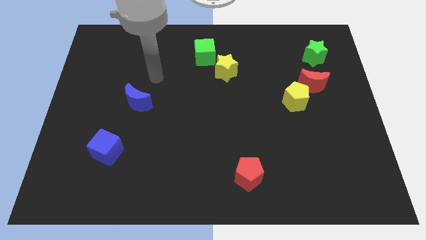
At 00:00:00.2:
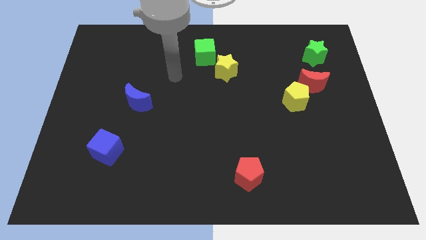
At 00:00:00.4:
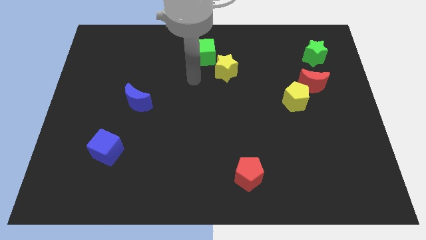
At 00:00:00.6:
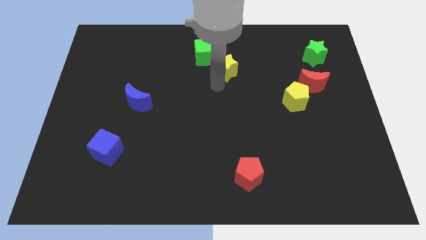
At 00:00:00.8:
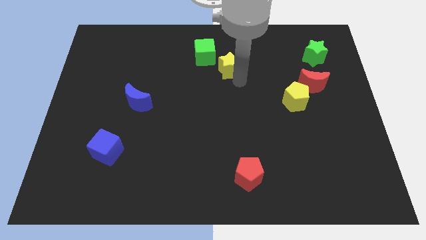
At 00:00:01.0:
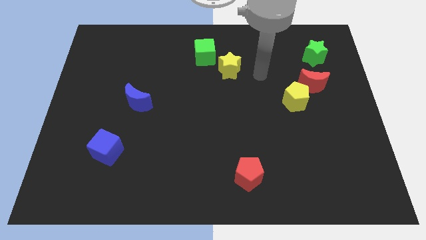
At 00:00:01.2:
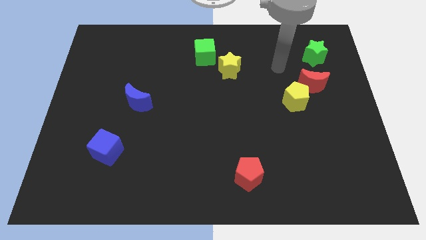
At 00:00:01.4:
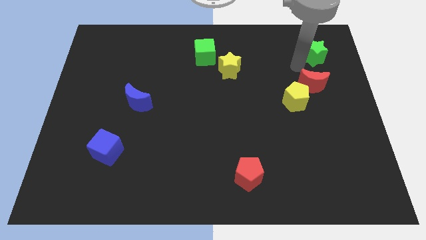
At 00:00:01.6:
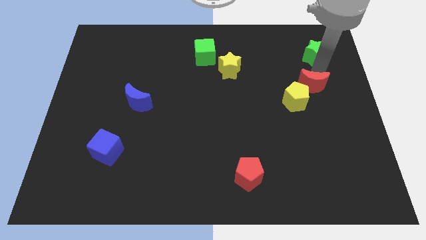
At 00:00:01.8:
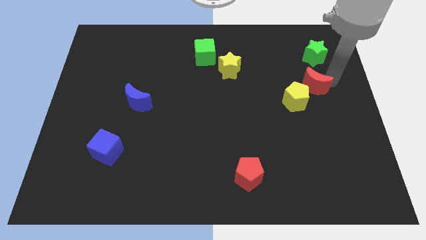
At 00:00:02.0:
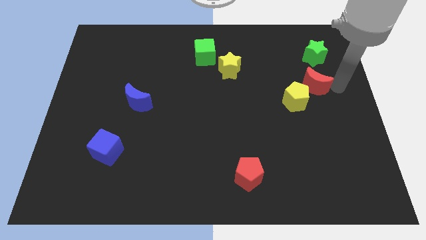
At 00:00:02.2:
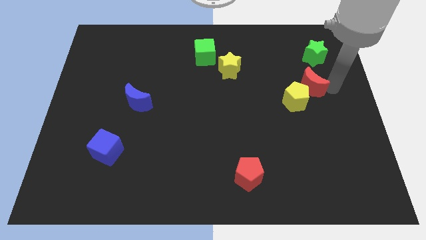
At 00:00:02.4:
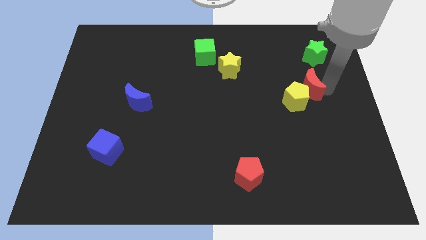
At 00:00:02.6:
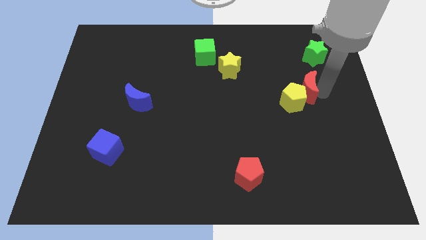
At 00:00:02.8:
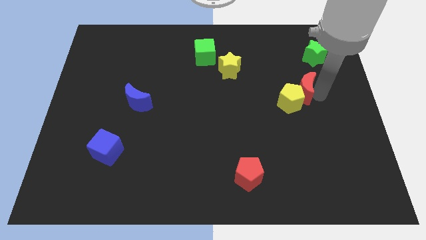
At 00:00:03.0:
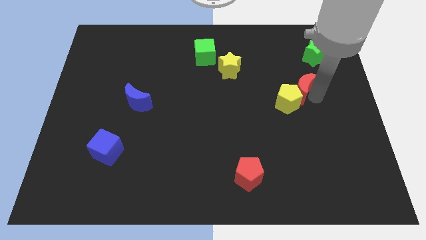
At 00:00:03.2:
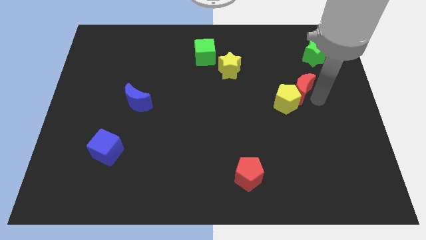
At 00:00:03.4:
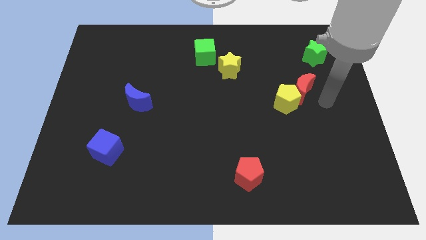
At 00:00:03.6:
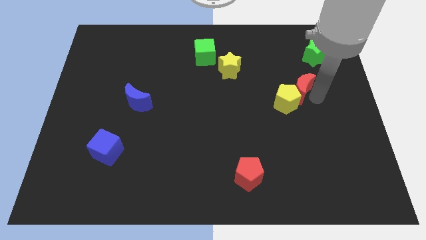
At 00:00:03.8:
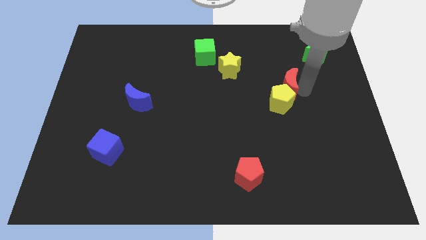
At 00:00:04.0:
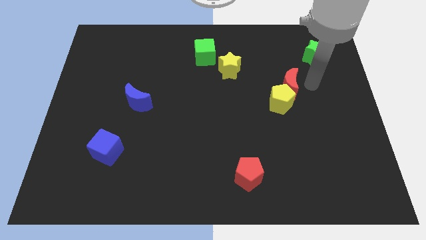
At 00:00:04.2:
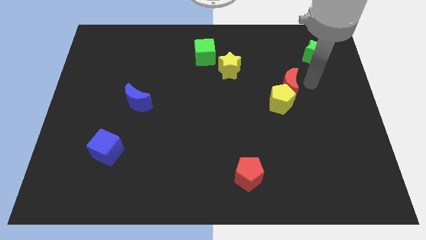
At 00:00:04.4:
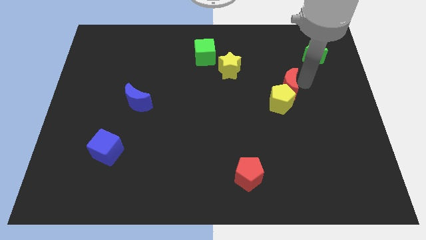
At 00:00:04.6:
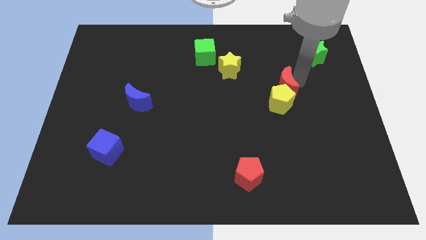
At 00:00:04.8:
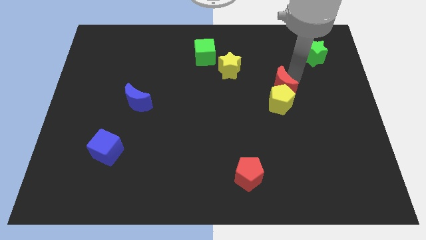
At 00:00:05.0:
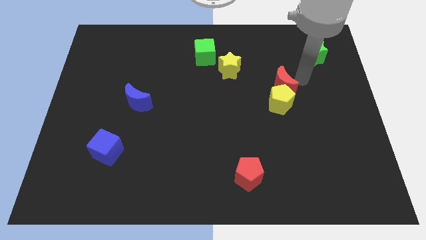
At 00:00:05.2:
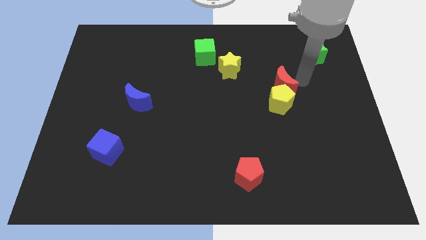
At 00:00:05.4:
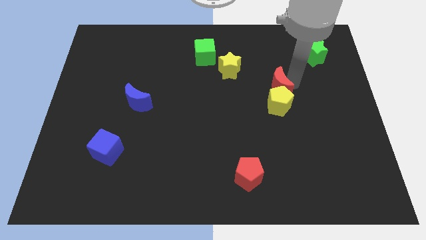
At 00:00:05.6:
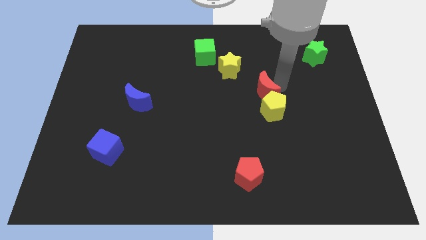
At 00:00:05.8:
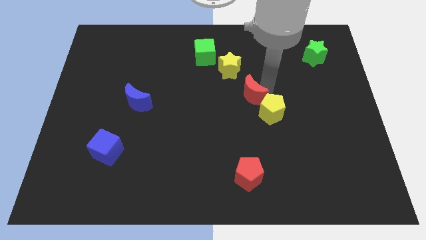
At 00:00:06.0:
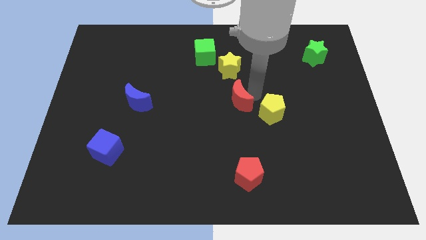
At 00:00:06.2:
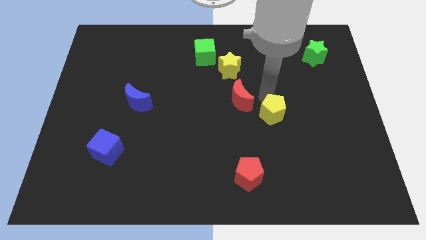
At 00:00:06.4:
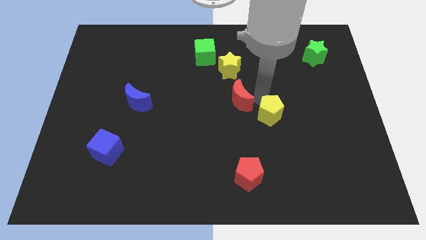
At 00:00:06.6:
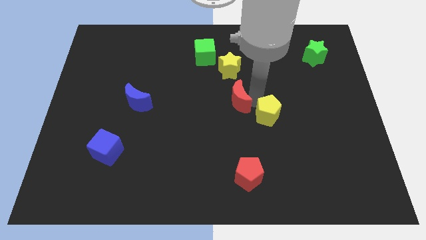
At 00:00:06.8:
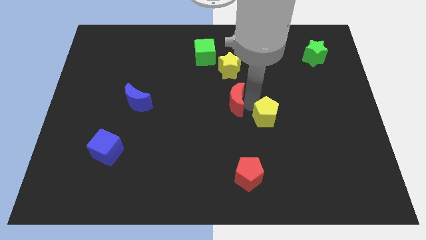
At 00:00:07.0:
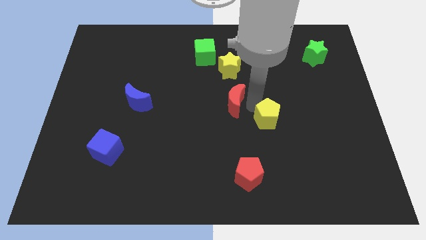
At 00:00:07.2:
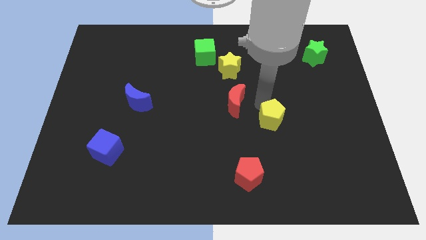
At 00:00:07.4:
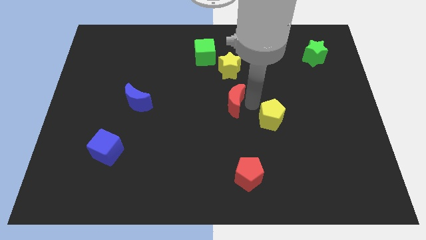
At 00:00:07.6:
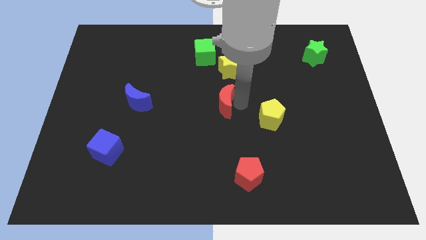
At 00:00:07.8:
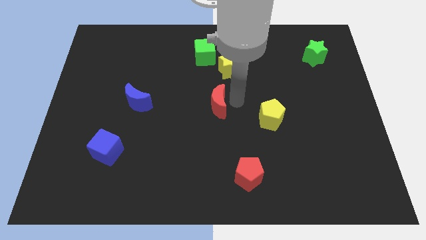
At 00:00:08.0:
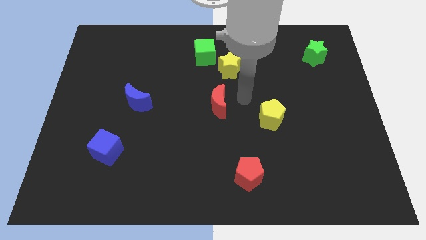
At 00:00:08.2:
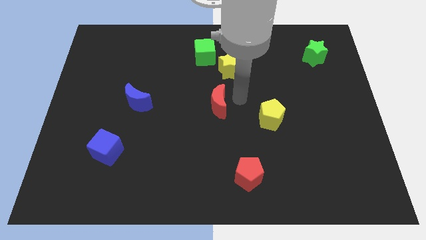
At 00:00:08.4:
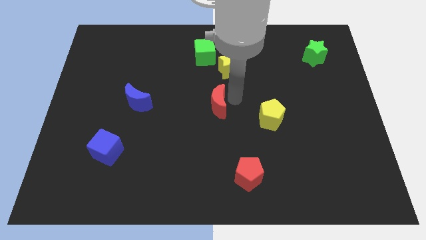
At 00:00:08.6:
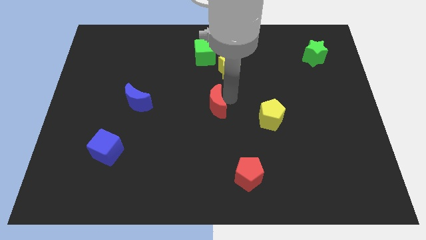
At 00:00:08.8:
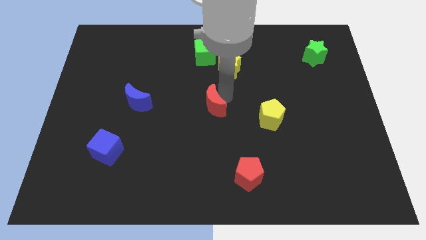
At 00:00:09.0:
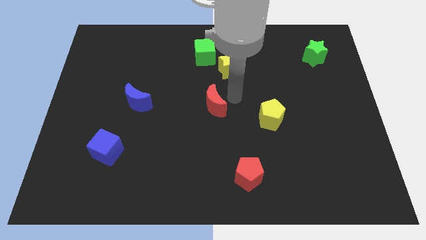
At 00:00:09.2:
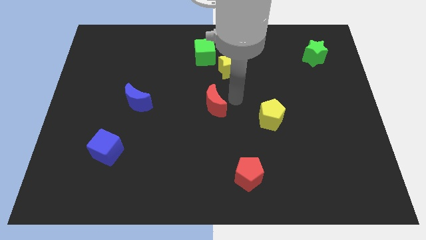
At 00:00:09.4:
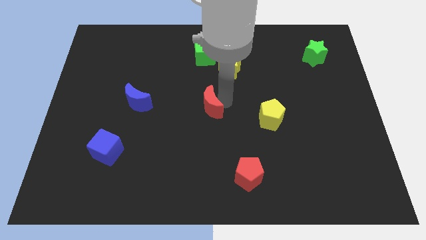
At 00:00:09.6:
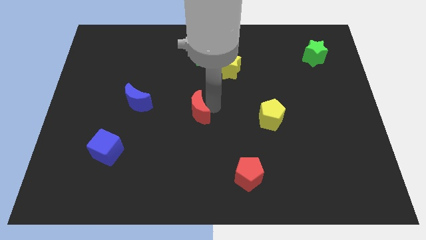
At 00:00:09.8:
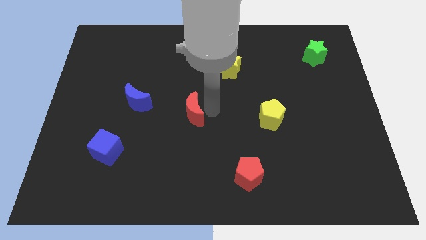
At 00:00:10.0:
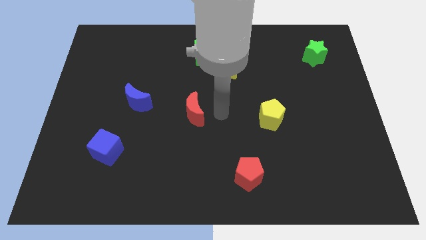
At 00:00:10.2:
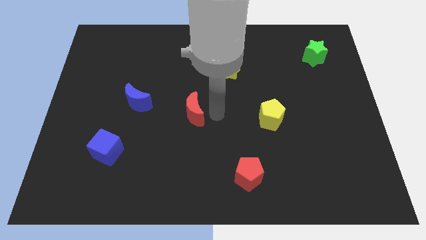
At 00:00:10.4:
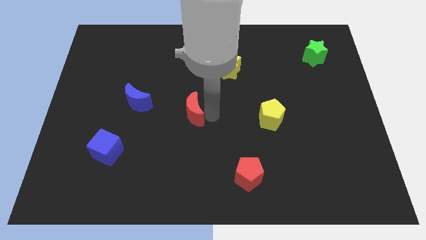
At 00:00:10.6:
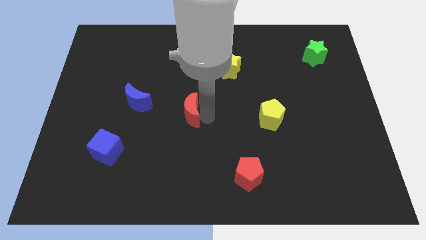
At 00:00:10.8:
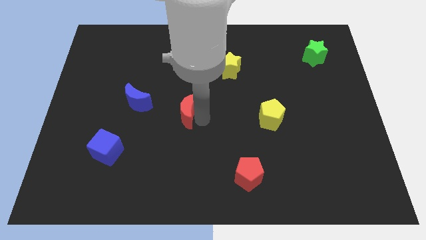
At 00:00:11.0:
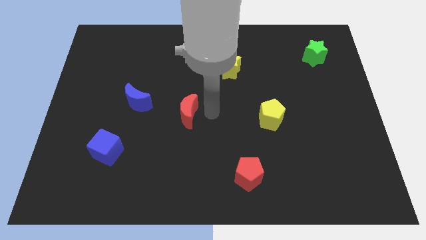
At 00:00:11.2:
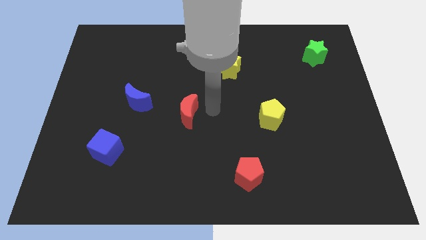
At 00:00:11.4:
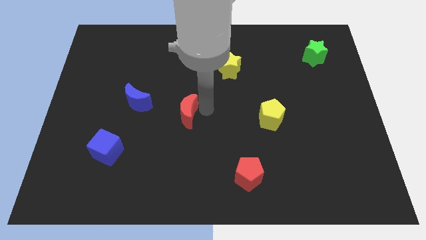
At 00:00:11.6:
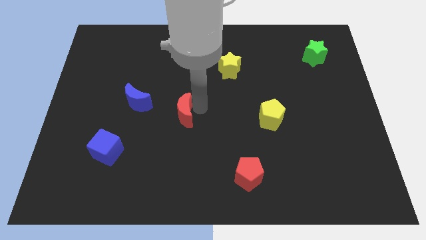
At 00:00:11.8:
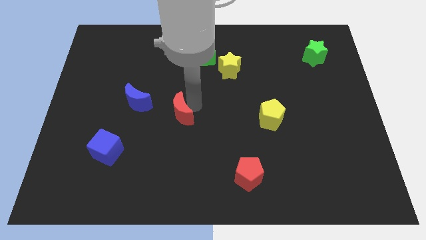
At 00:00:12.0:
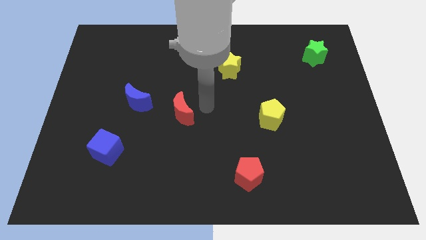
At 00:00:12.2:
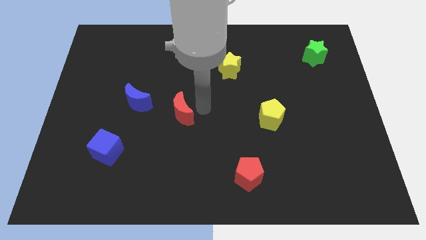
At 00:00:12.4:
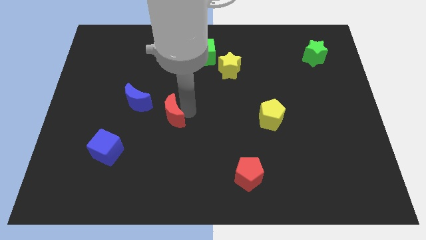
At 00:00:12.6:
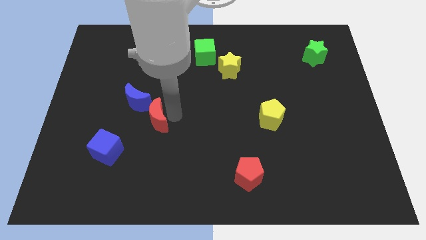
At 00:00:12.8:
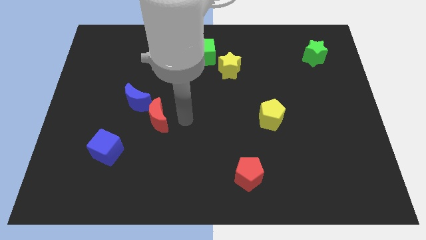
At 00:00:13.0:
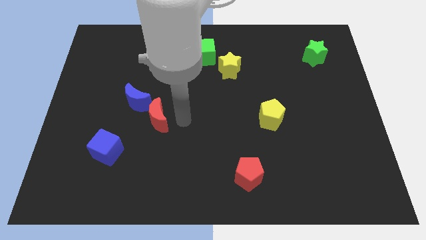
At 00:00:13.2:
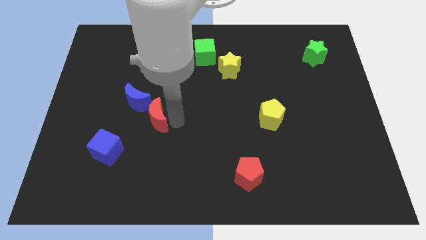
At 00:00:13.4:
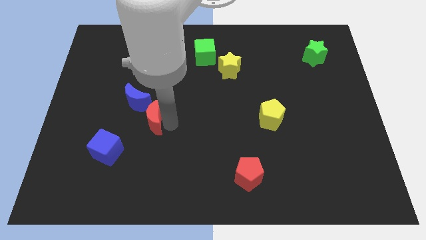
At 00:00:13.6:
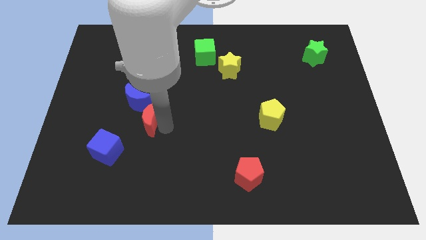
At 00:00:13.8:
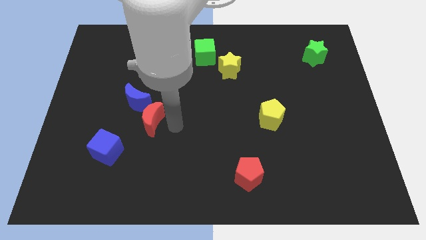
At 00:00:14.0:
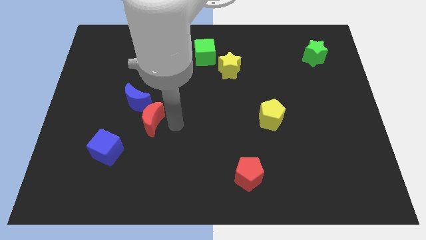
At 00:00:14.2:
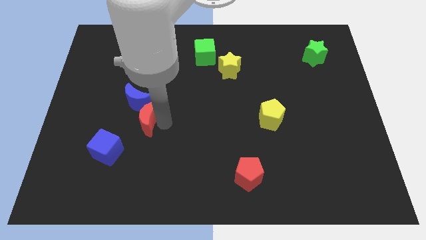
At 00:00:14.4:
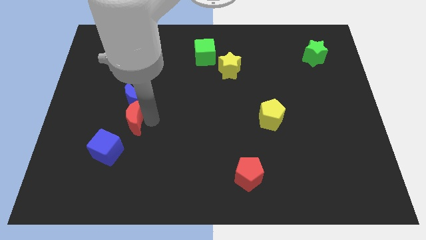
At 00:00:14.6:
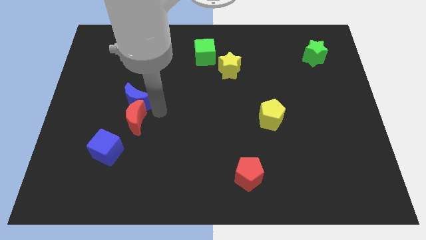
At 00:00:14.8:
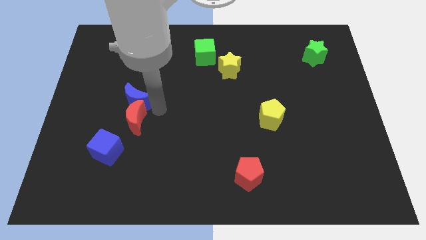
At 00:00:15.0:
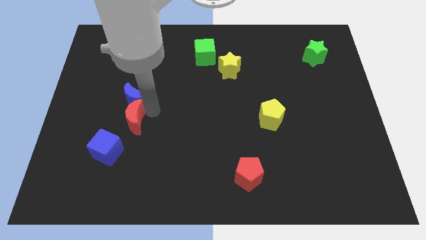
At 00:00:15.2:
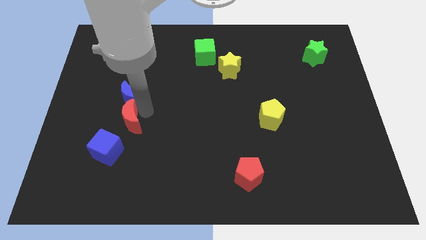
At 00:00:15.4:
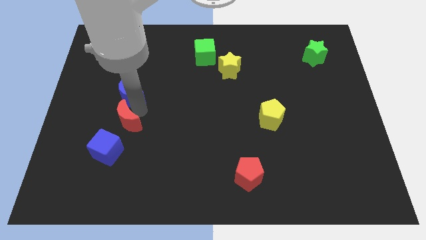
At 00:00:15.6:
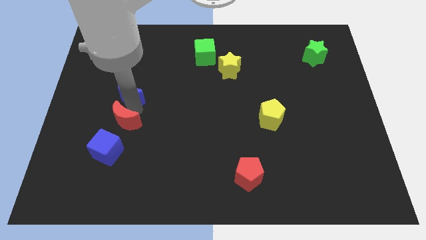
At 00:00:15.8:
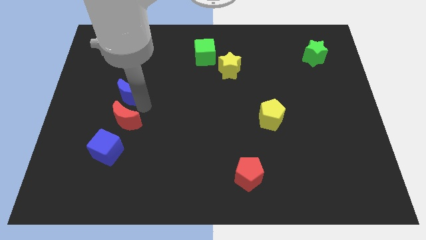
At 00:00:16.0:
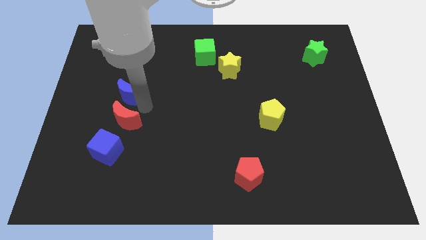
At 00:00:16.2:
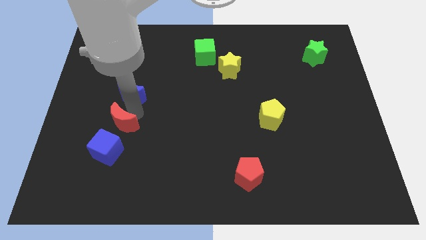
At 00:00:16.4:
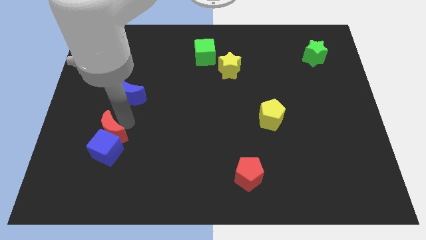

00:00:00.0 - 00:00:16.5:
put the red moon diagonally up and to the left of the blue cube
